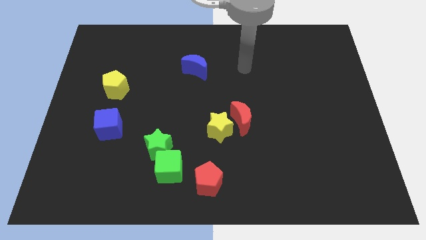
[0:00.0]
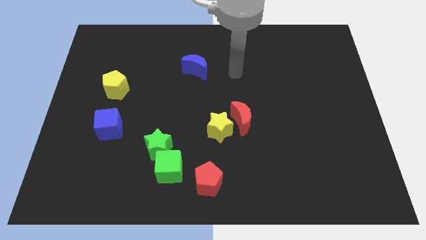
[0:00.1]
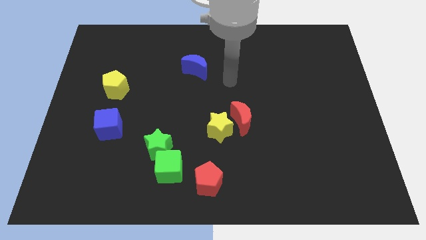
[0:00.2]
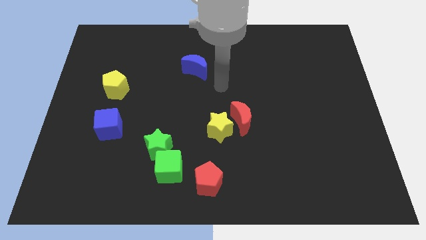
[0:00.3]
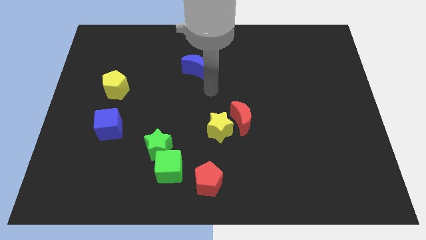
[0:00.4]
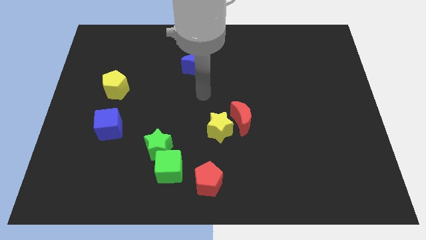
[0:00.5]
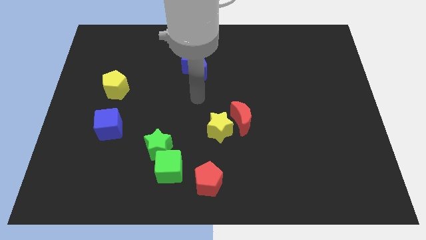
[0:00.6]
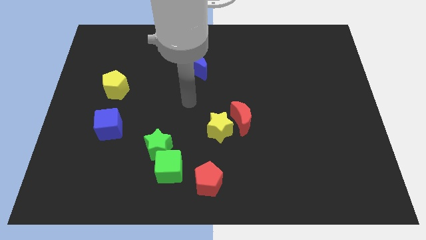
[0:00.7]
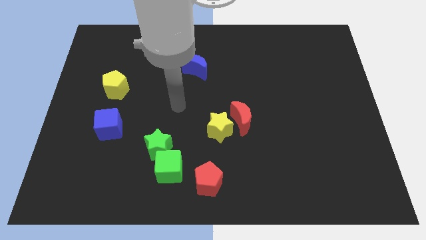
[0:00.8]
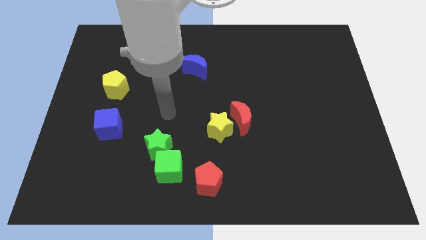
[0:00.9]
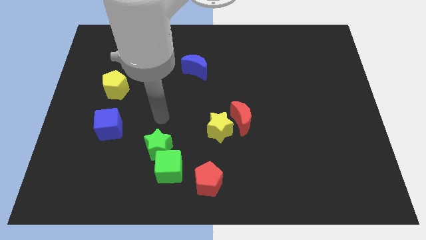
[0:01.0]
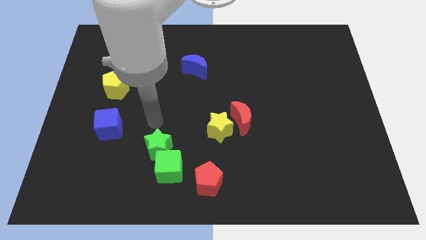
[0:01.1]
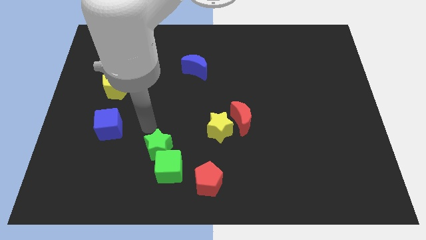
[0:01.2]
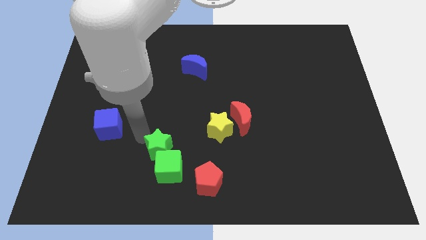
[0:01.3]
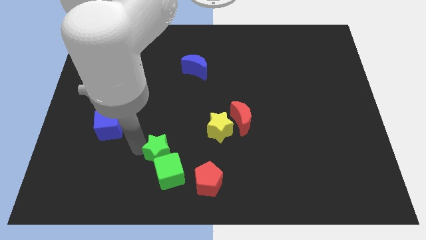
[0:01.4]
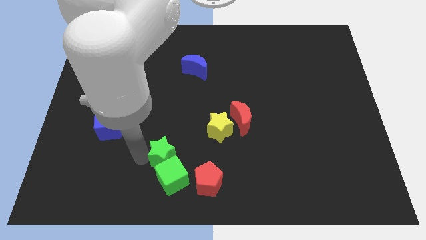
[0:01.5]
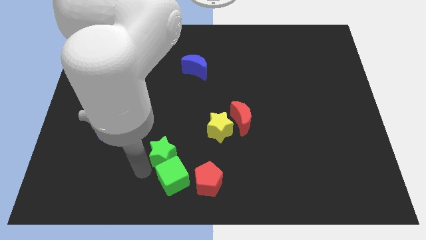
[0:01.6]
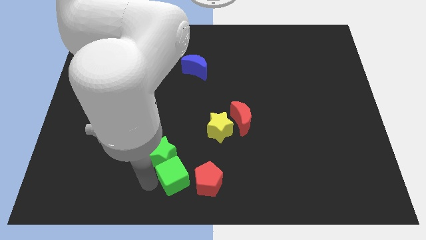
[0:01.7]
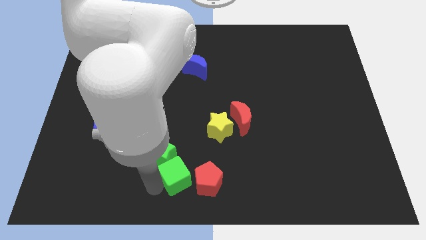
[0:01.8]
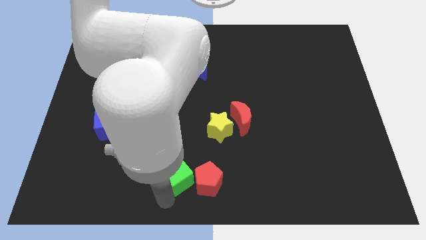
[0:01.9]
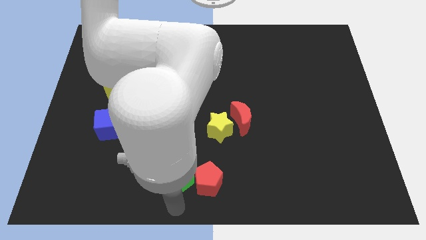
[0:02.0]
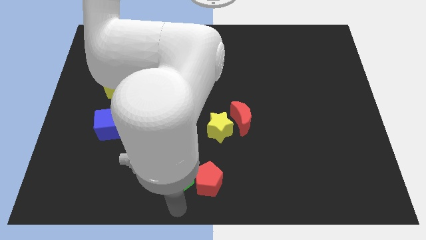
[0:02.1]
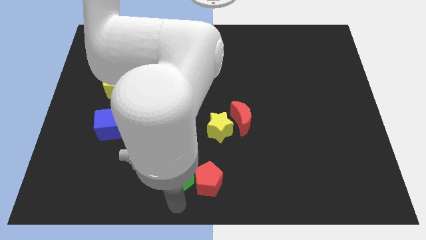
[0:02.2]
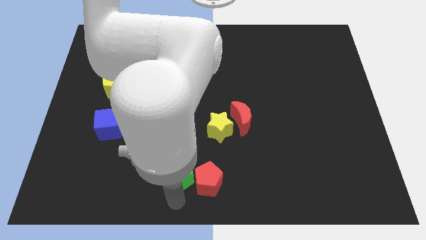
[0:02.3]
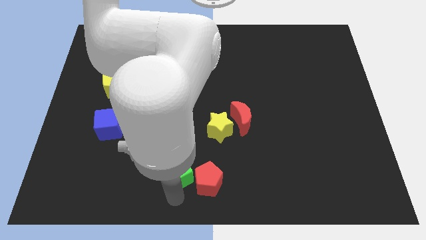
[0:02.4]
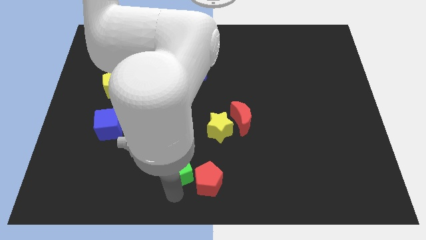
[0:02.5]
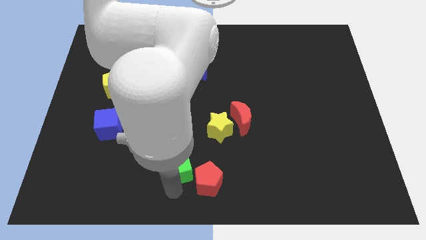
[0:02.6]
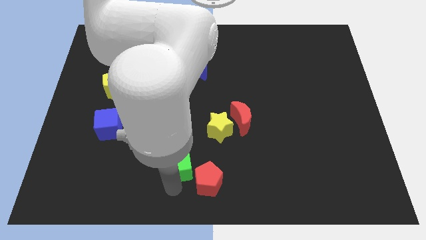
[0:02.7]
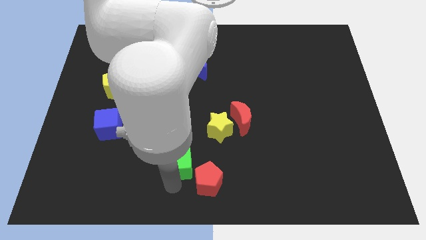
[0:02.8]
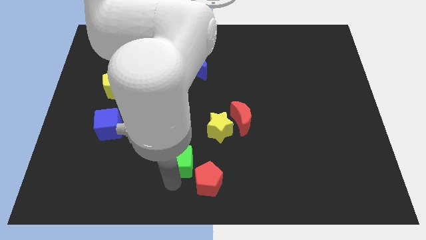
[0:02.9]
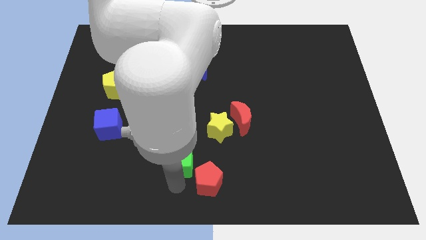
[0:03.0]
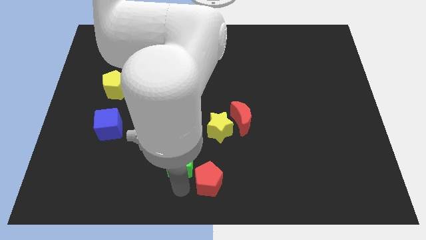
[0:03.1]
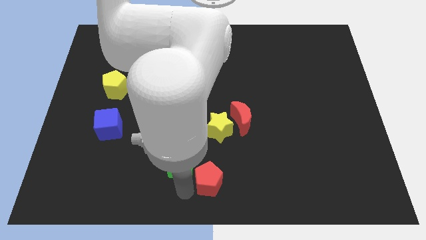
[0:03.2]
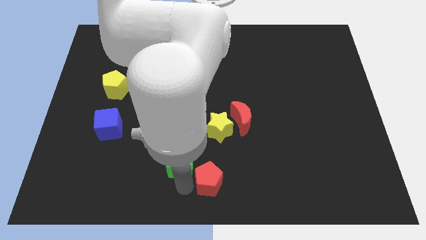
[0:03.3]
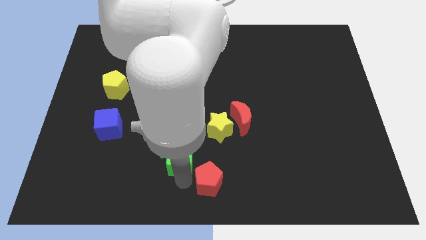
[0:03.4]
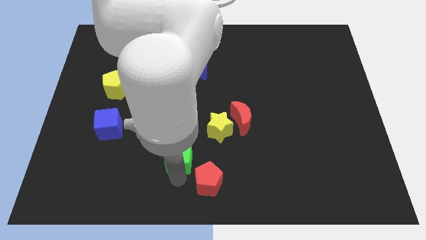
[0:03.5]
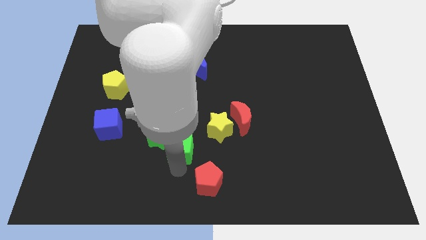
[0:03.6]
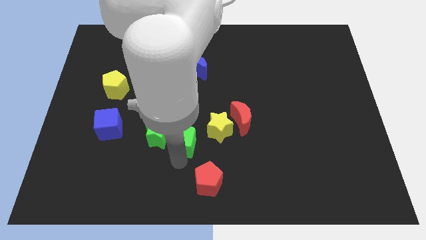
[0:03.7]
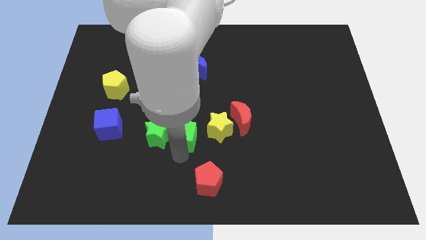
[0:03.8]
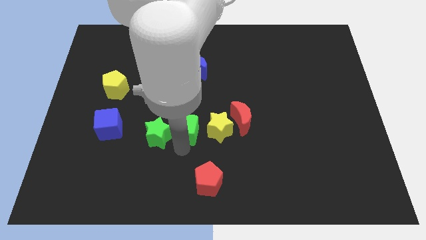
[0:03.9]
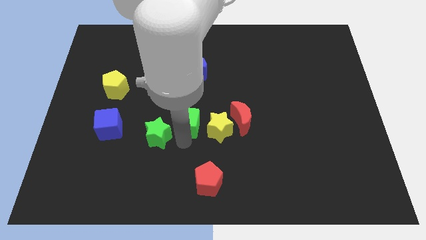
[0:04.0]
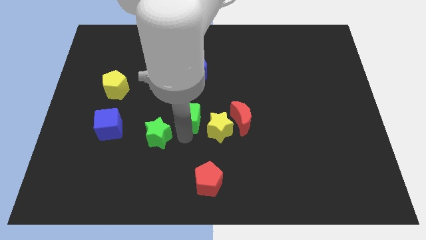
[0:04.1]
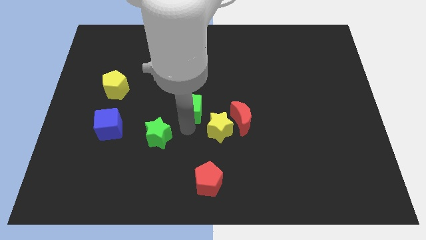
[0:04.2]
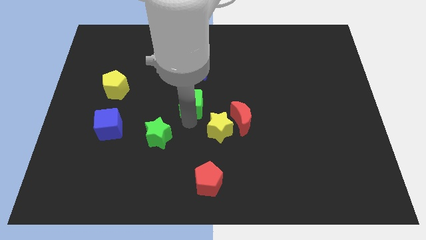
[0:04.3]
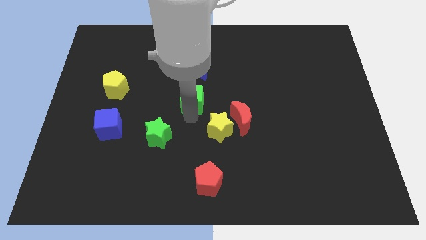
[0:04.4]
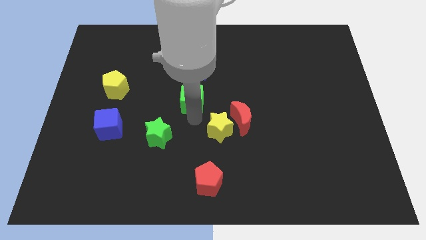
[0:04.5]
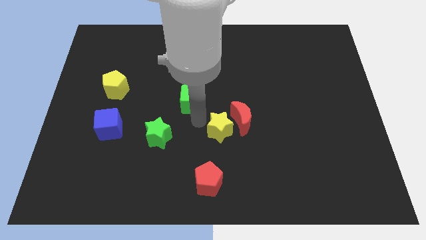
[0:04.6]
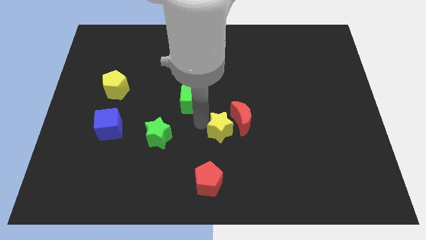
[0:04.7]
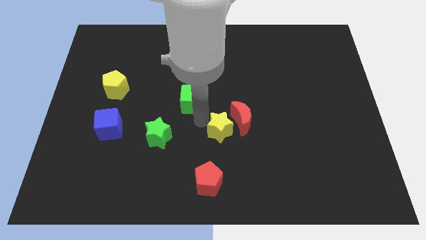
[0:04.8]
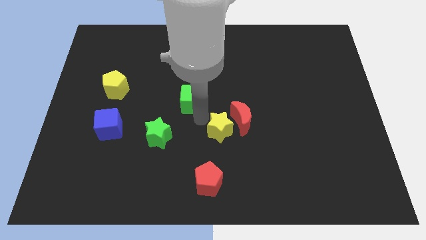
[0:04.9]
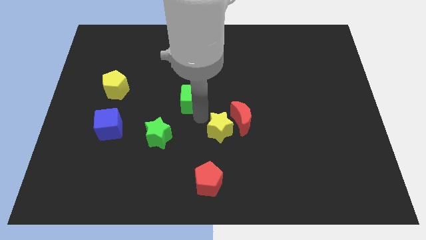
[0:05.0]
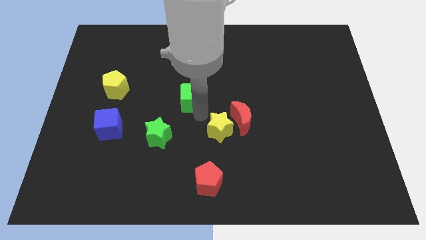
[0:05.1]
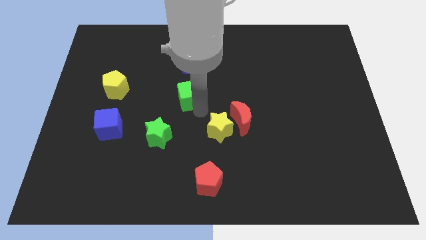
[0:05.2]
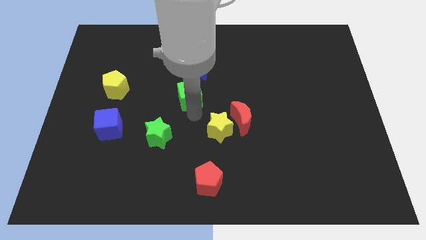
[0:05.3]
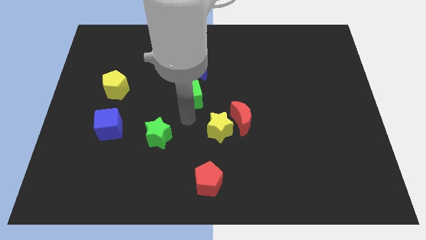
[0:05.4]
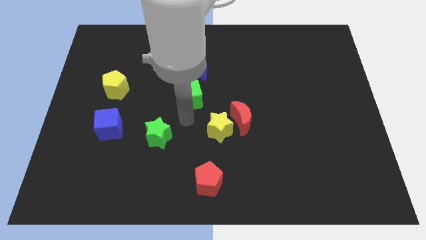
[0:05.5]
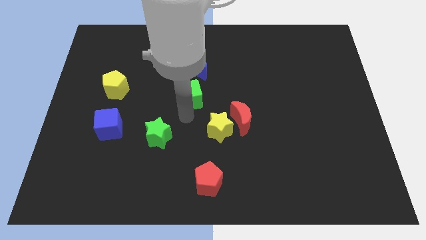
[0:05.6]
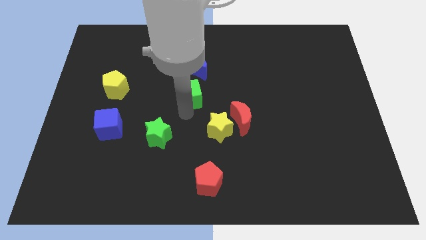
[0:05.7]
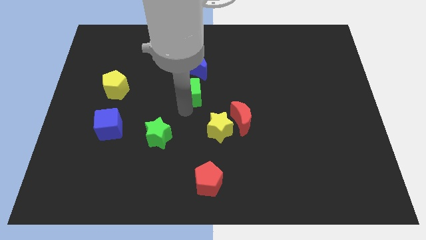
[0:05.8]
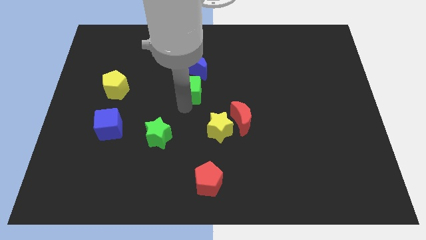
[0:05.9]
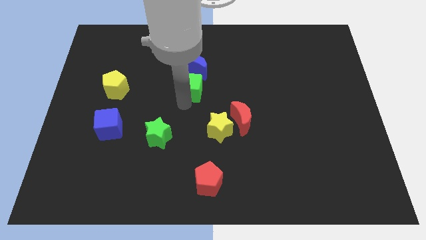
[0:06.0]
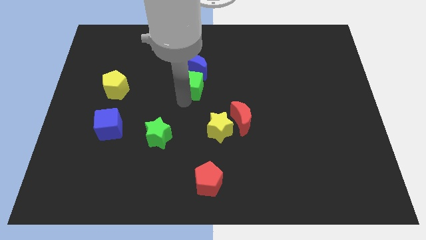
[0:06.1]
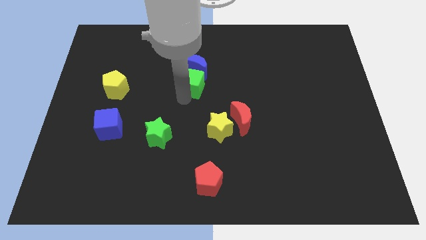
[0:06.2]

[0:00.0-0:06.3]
put the green cube next to the blue moon

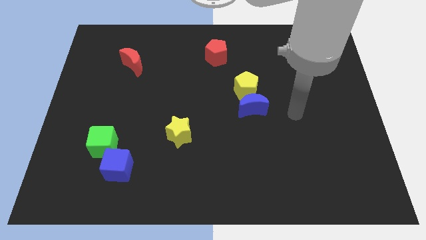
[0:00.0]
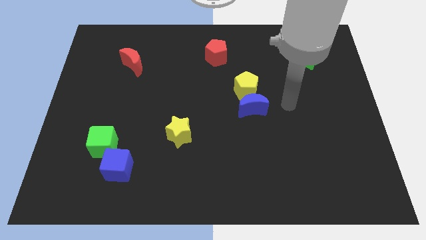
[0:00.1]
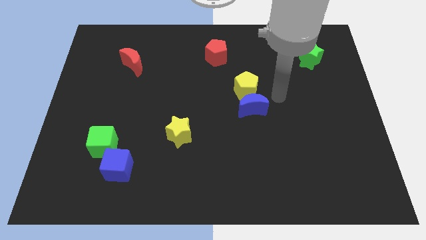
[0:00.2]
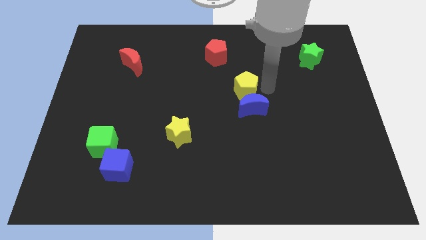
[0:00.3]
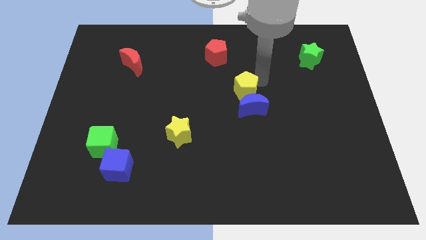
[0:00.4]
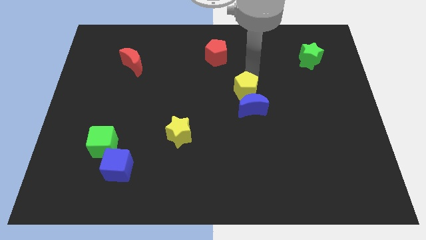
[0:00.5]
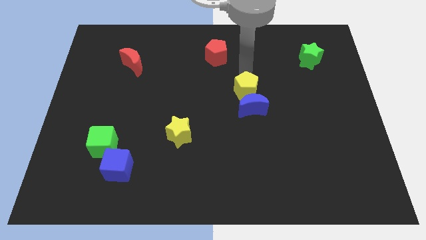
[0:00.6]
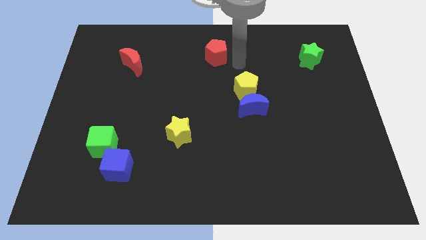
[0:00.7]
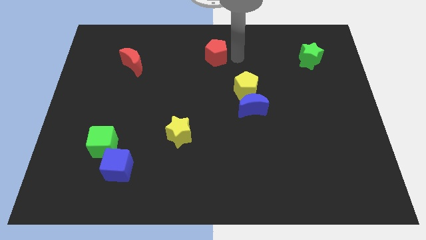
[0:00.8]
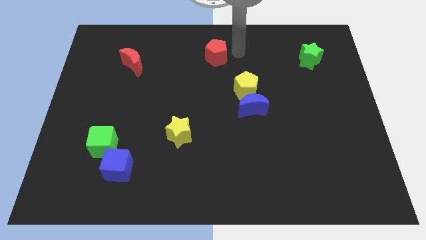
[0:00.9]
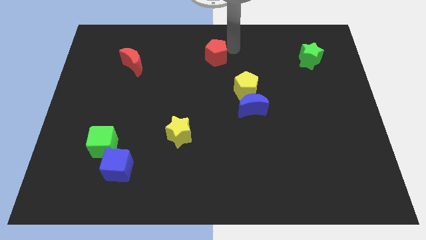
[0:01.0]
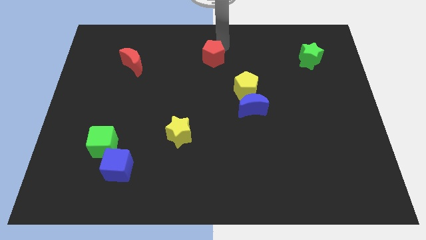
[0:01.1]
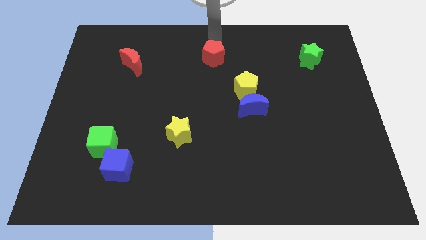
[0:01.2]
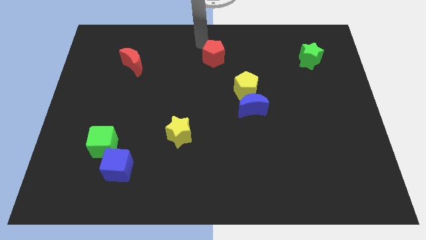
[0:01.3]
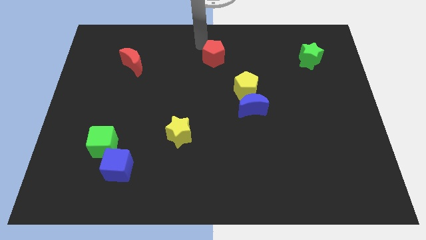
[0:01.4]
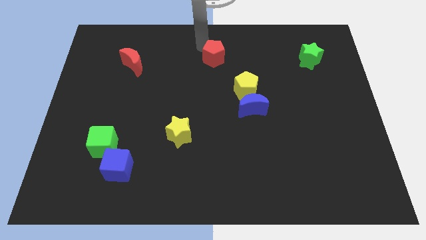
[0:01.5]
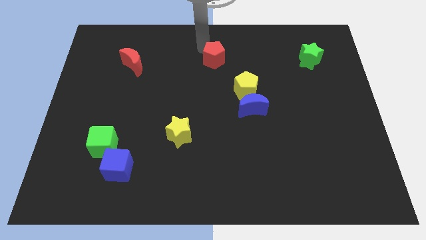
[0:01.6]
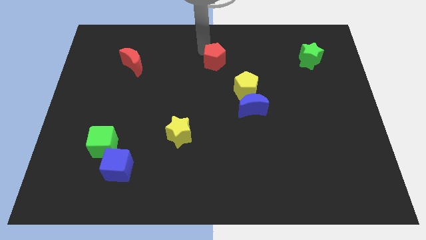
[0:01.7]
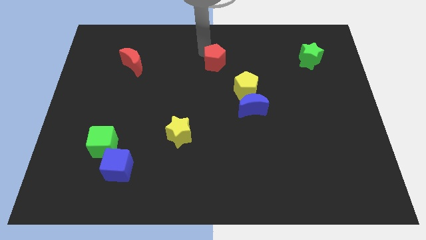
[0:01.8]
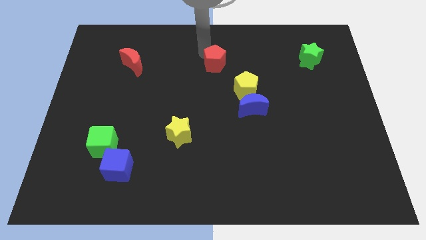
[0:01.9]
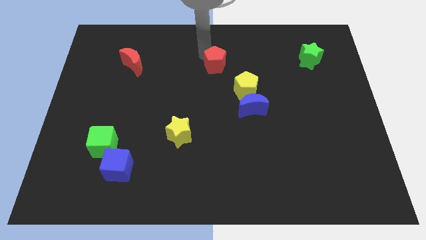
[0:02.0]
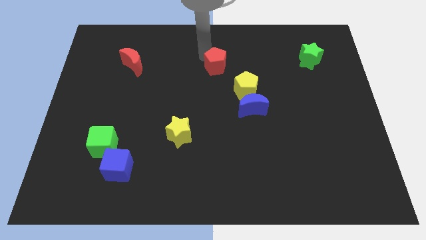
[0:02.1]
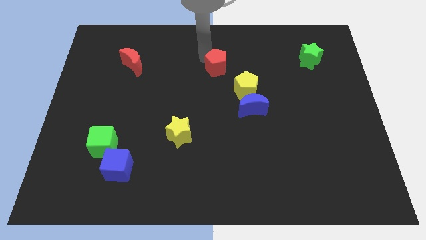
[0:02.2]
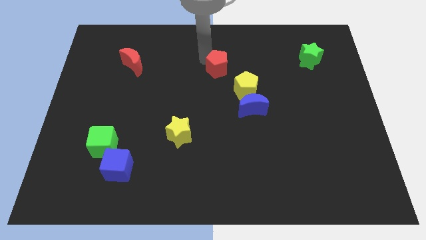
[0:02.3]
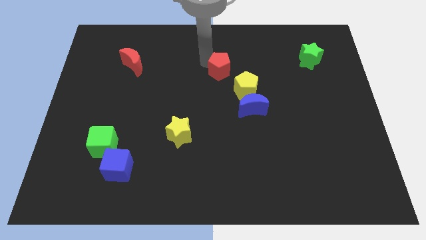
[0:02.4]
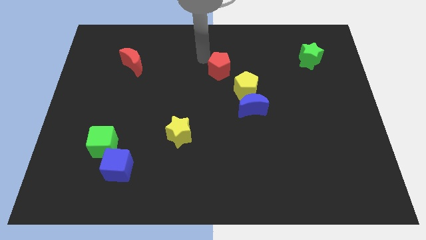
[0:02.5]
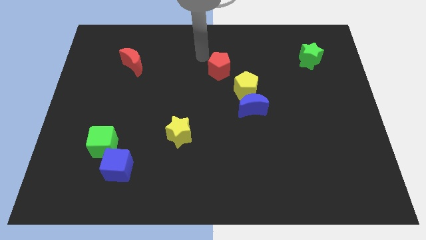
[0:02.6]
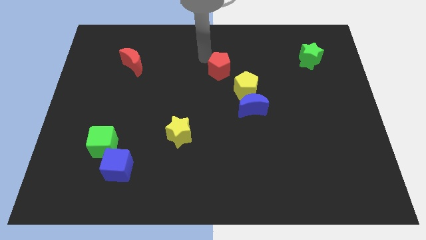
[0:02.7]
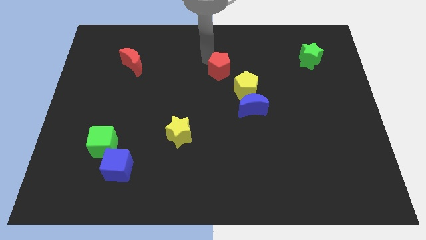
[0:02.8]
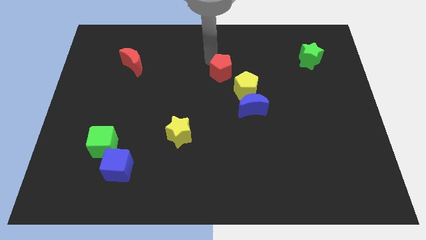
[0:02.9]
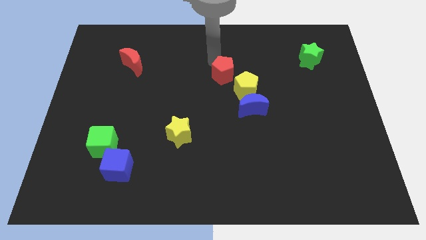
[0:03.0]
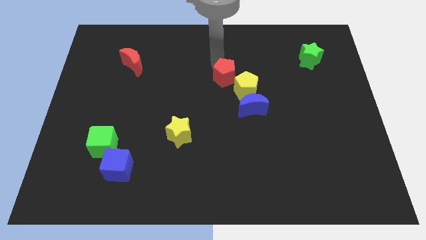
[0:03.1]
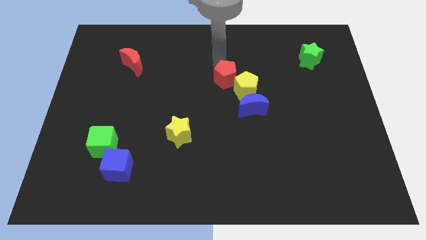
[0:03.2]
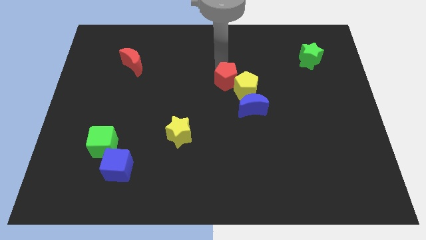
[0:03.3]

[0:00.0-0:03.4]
push the red pentagon towards the yellow pentagon
